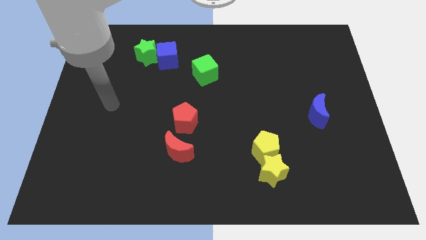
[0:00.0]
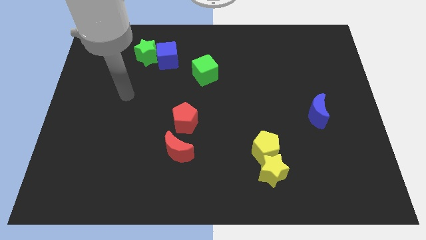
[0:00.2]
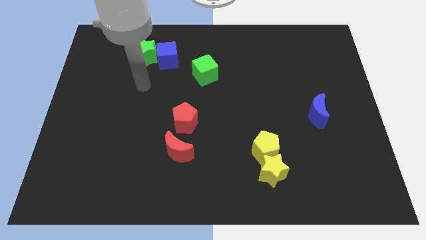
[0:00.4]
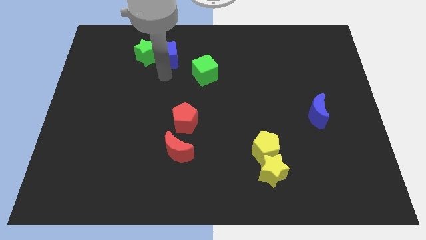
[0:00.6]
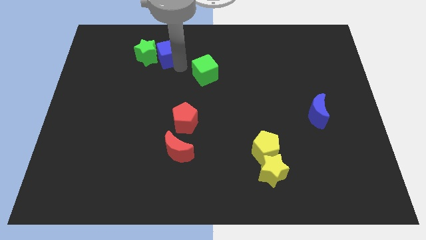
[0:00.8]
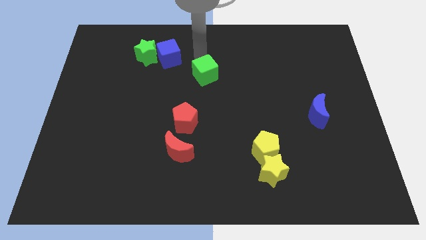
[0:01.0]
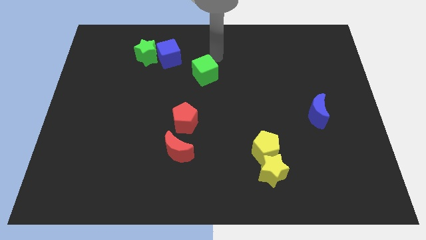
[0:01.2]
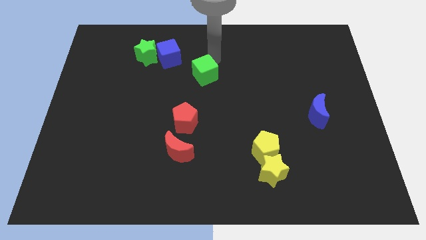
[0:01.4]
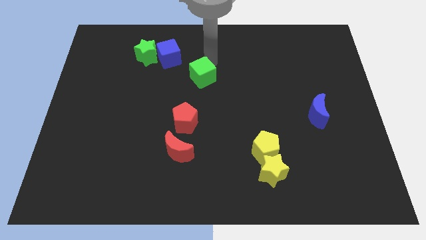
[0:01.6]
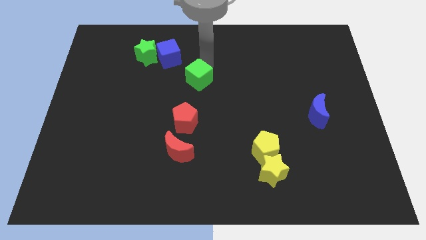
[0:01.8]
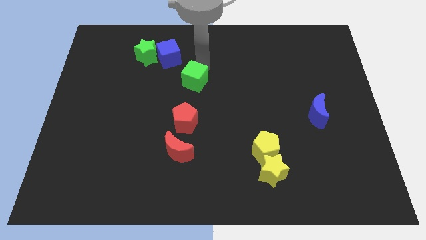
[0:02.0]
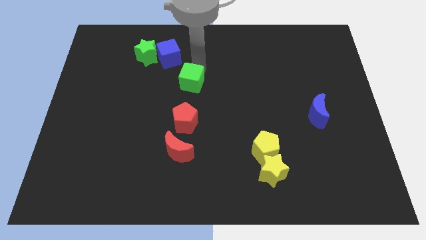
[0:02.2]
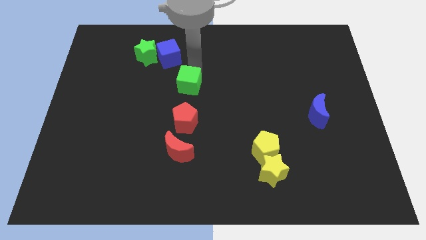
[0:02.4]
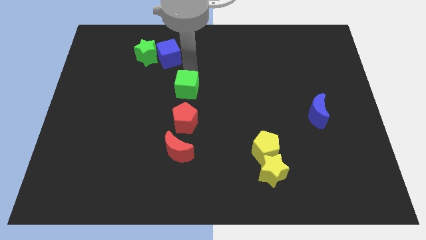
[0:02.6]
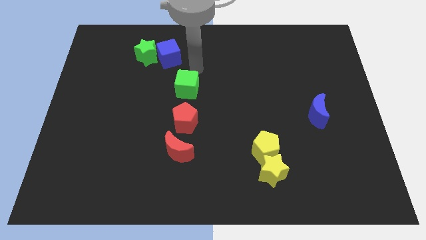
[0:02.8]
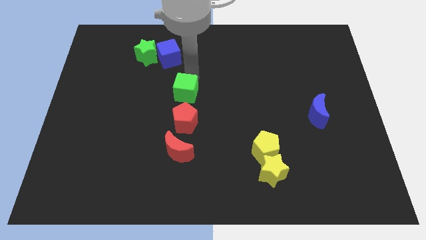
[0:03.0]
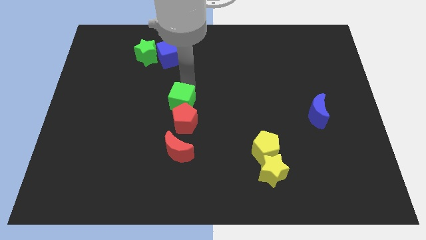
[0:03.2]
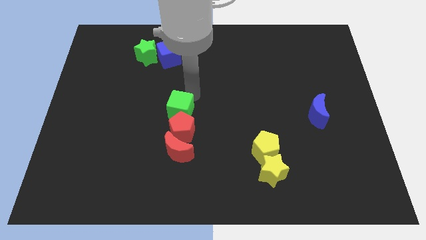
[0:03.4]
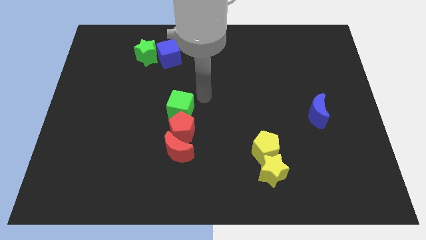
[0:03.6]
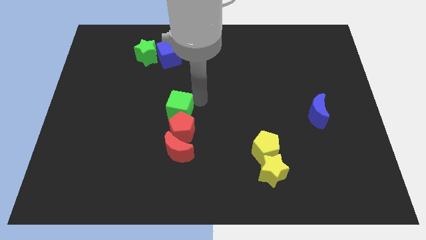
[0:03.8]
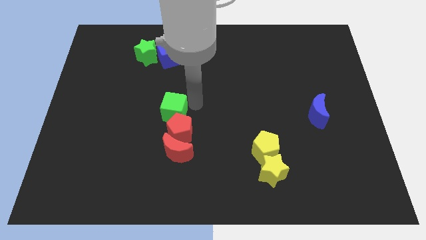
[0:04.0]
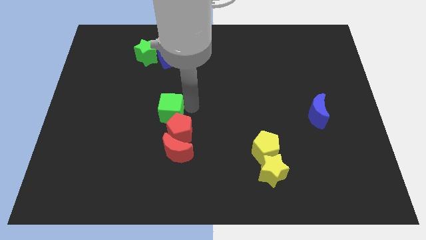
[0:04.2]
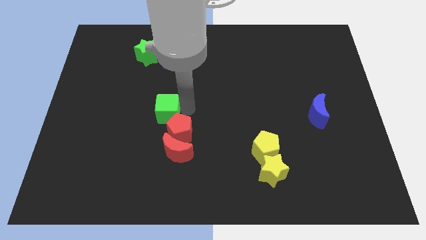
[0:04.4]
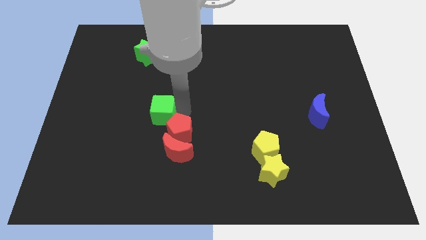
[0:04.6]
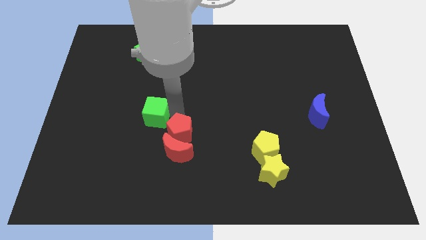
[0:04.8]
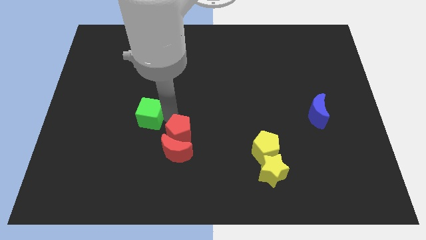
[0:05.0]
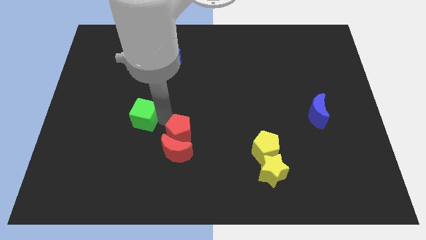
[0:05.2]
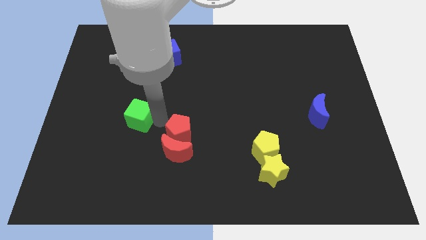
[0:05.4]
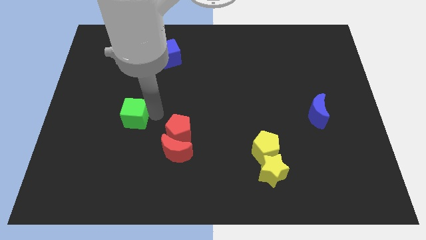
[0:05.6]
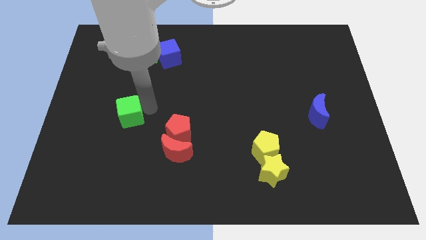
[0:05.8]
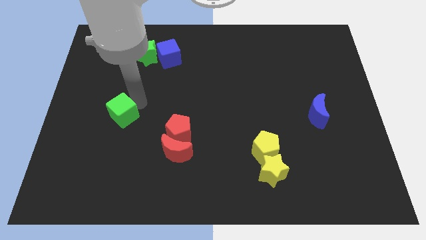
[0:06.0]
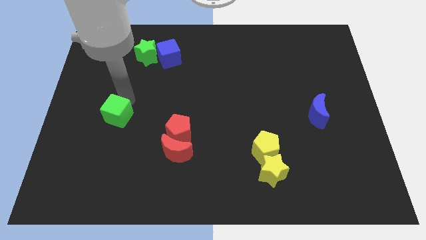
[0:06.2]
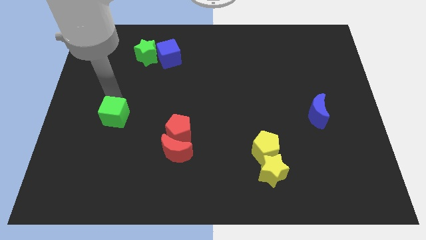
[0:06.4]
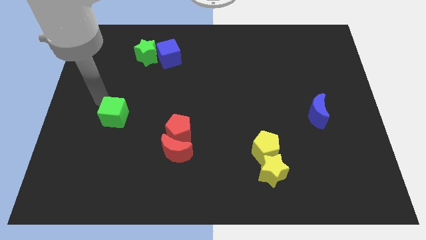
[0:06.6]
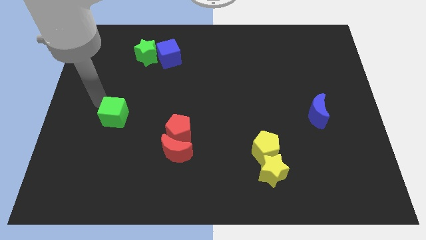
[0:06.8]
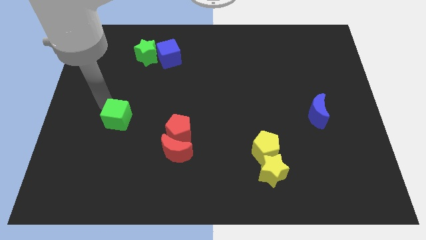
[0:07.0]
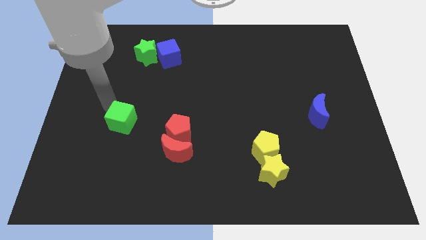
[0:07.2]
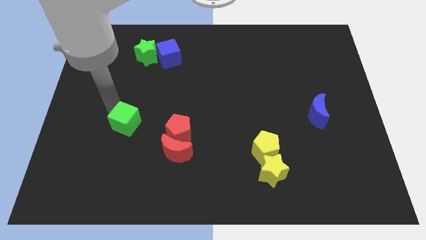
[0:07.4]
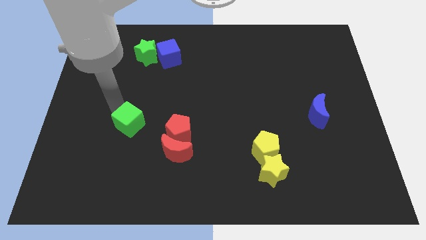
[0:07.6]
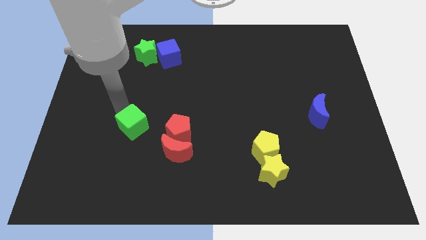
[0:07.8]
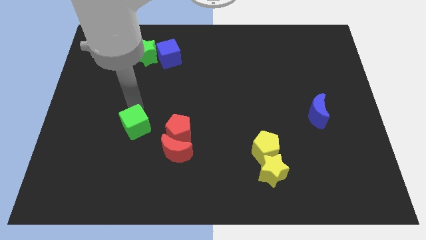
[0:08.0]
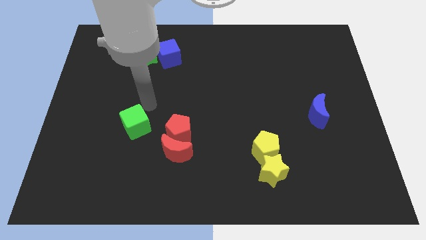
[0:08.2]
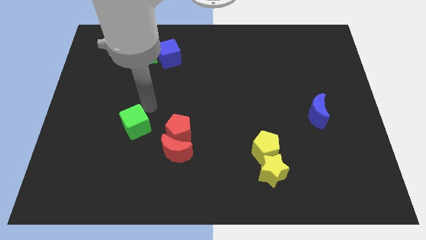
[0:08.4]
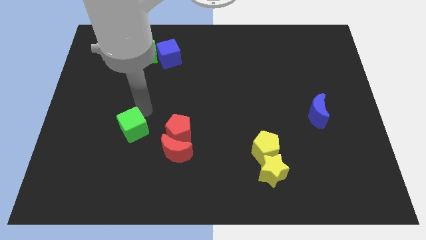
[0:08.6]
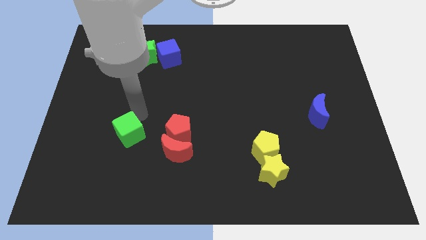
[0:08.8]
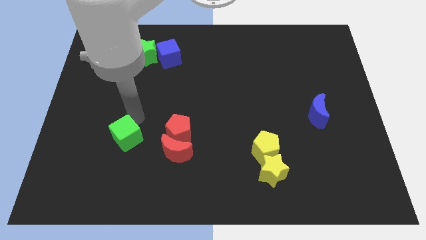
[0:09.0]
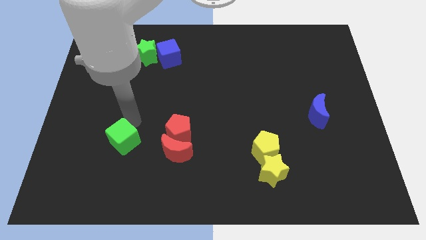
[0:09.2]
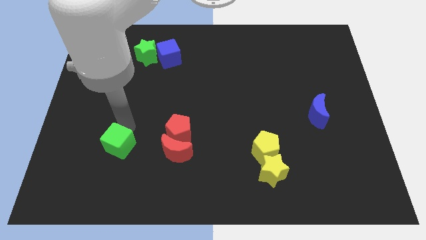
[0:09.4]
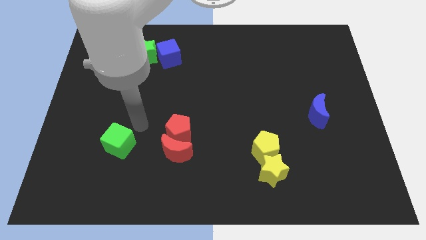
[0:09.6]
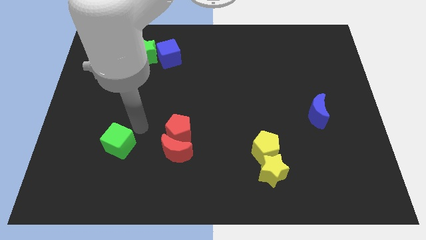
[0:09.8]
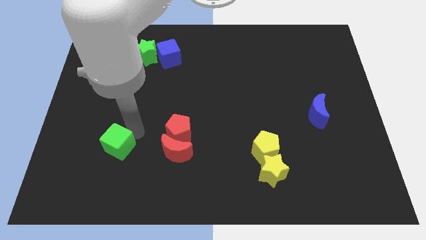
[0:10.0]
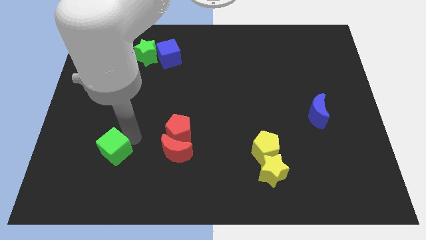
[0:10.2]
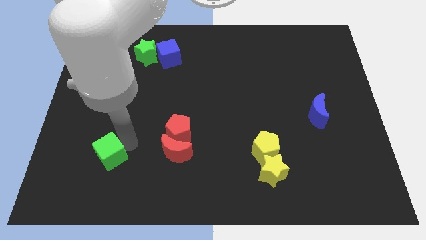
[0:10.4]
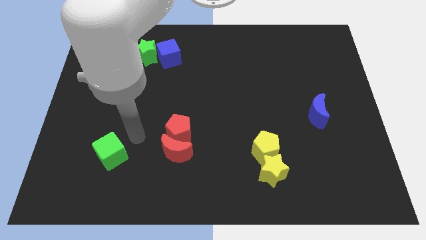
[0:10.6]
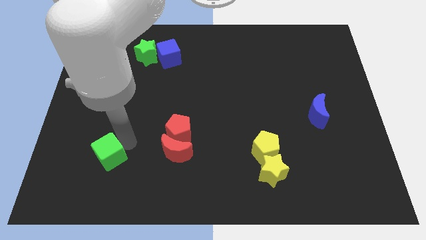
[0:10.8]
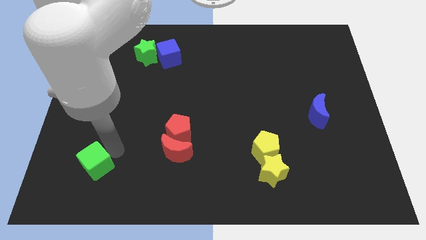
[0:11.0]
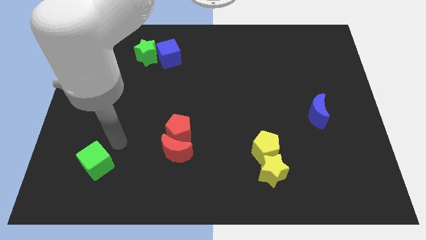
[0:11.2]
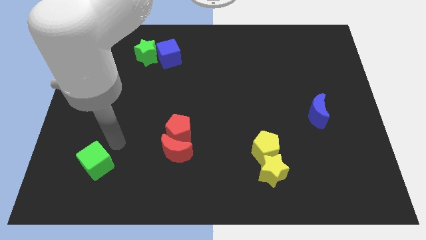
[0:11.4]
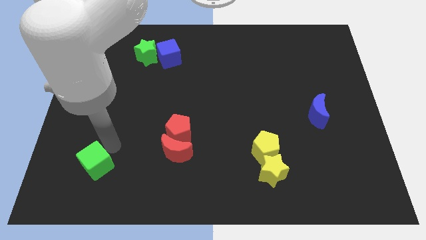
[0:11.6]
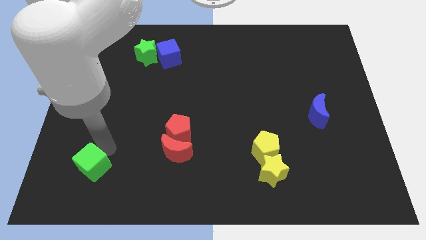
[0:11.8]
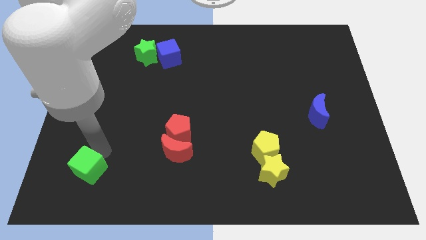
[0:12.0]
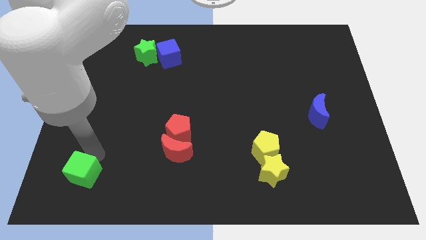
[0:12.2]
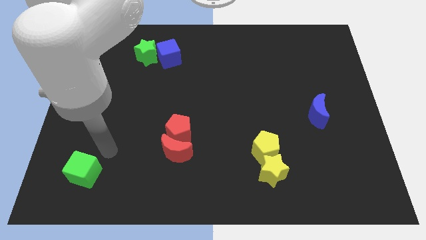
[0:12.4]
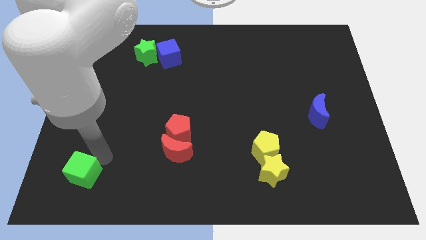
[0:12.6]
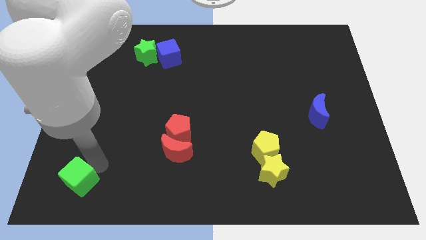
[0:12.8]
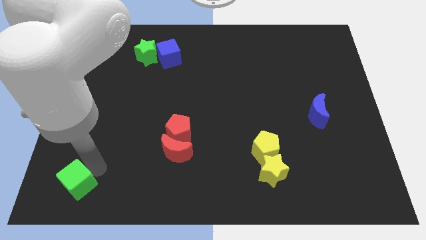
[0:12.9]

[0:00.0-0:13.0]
move the green cube to the bottom left
